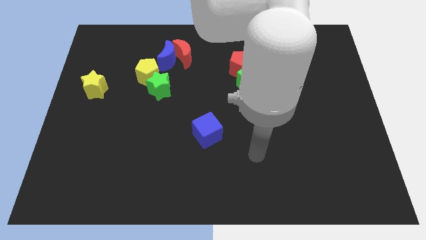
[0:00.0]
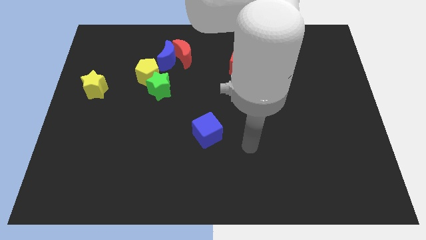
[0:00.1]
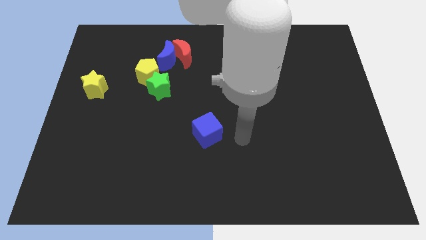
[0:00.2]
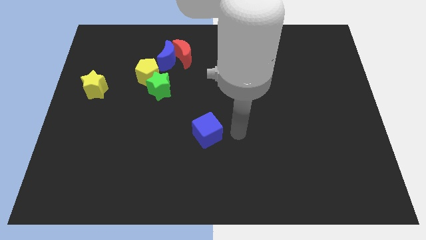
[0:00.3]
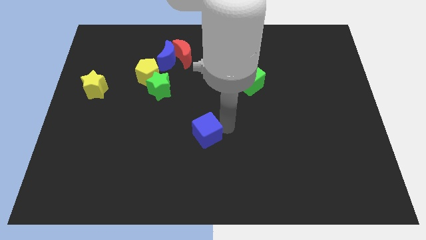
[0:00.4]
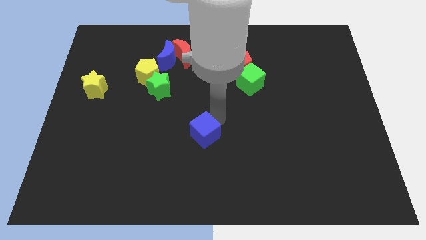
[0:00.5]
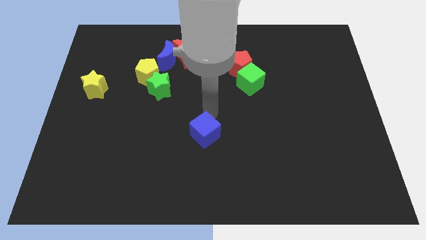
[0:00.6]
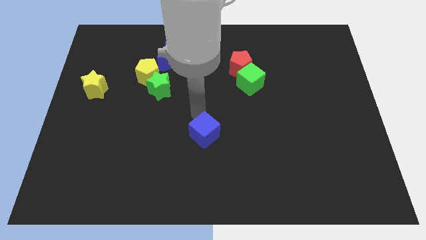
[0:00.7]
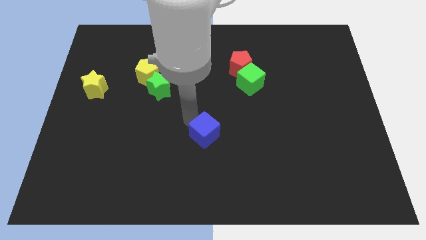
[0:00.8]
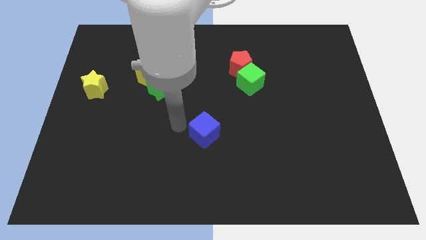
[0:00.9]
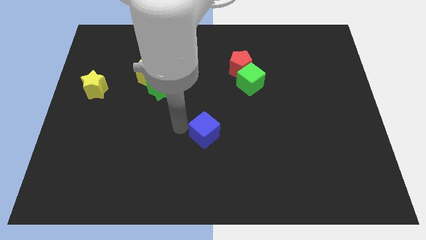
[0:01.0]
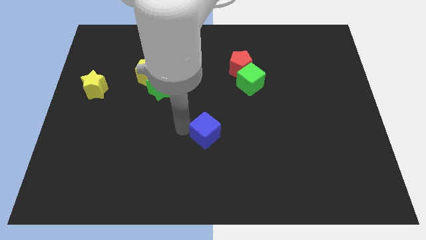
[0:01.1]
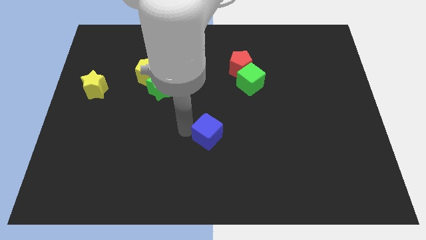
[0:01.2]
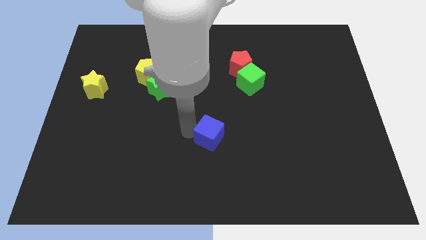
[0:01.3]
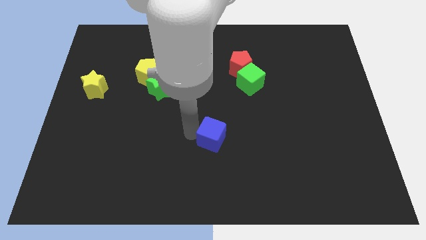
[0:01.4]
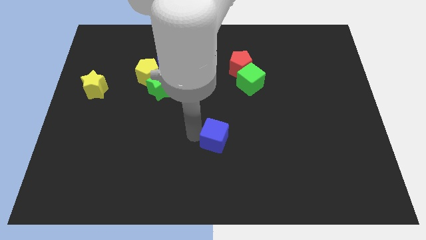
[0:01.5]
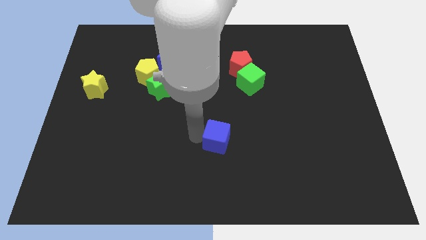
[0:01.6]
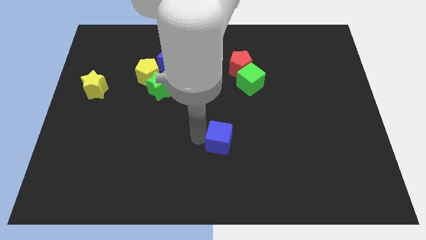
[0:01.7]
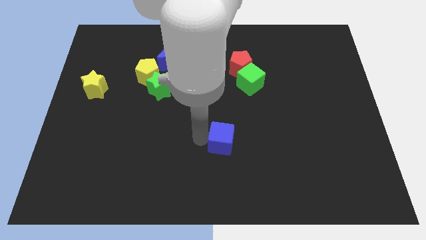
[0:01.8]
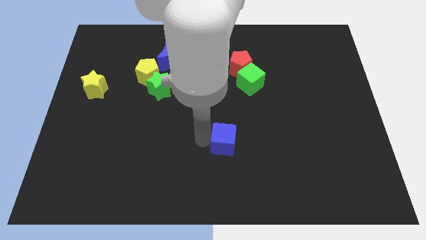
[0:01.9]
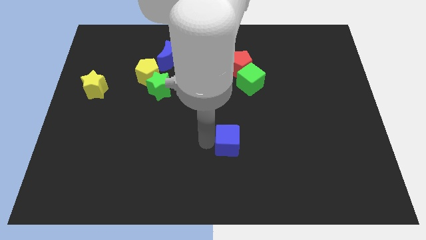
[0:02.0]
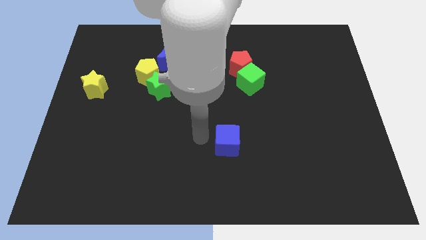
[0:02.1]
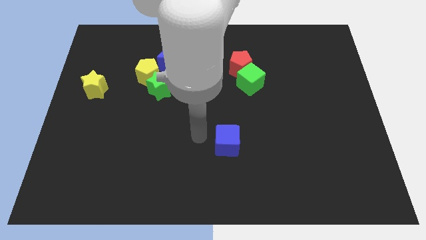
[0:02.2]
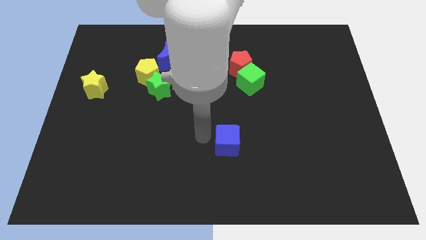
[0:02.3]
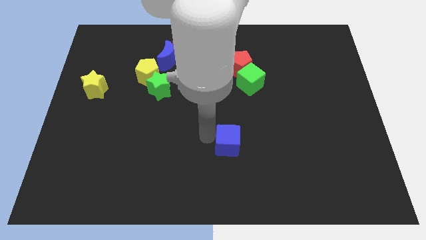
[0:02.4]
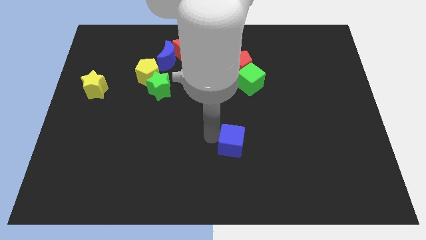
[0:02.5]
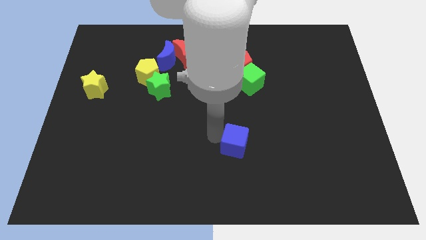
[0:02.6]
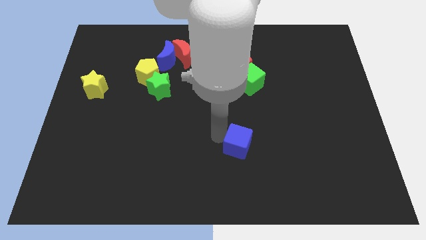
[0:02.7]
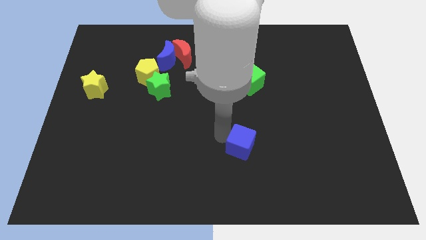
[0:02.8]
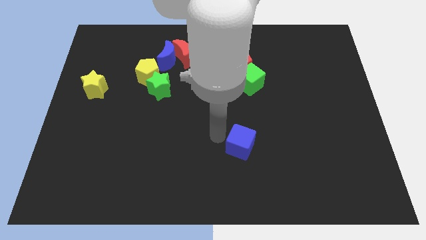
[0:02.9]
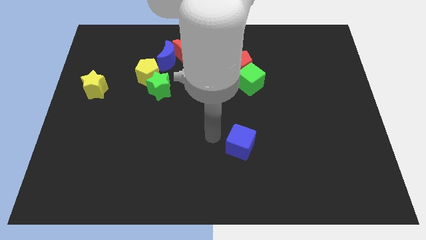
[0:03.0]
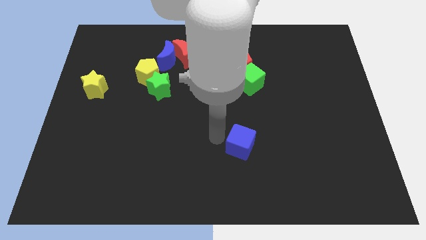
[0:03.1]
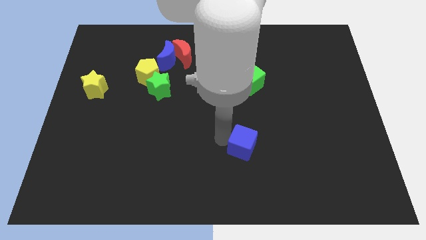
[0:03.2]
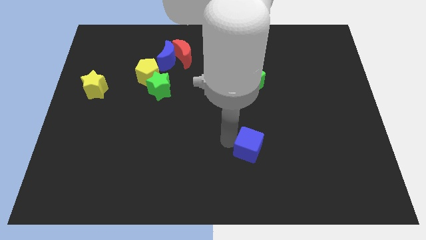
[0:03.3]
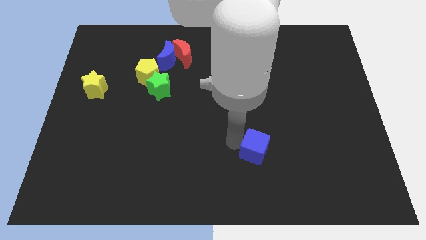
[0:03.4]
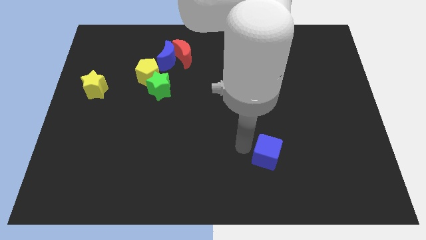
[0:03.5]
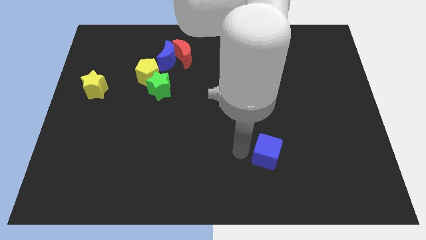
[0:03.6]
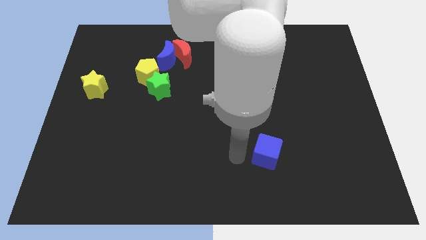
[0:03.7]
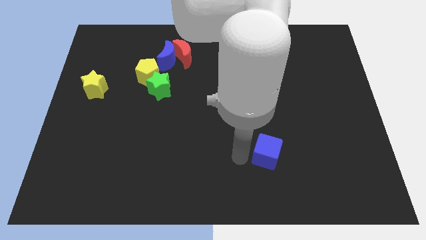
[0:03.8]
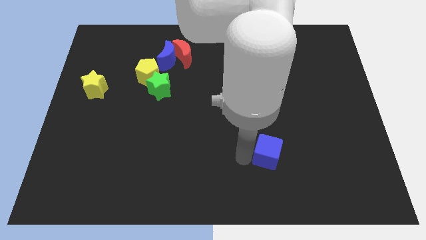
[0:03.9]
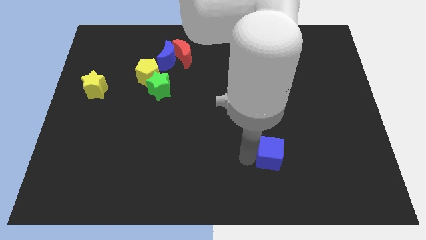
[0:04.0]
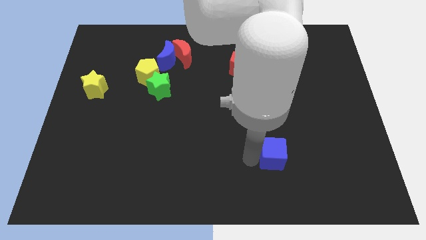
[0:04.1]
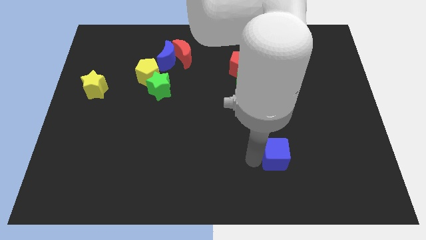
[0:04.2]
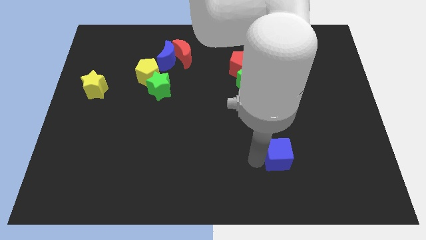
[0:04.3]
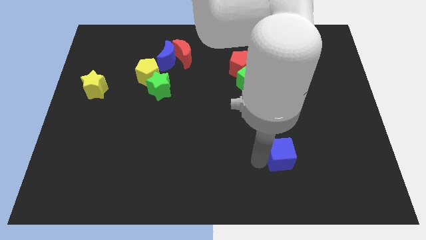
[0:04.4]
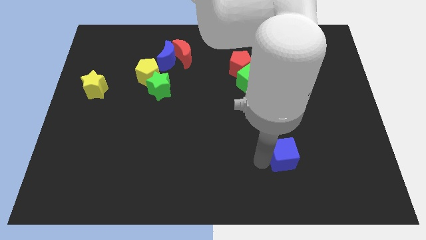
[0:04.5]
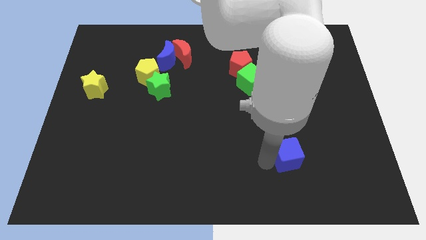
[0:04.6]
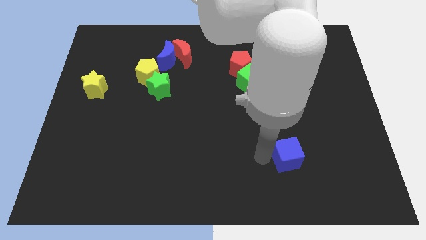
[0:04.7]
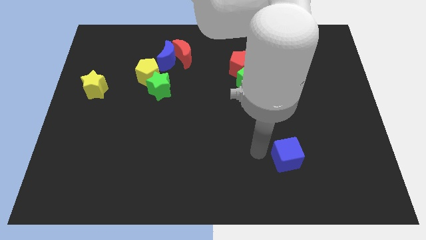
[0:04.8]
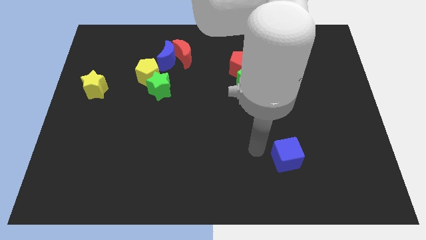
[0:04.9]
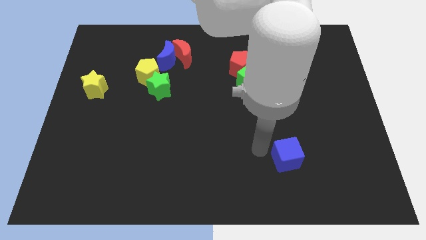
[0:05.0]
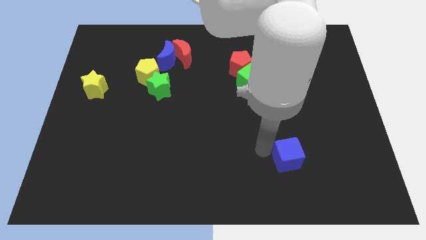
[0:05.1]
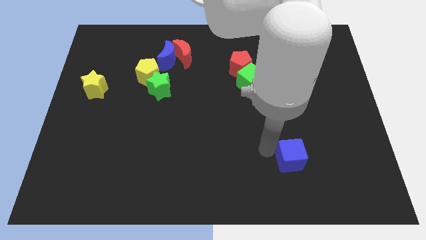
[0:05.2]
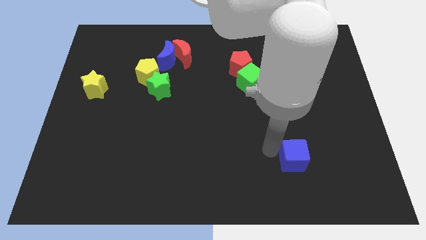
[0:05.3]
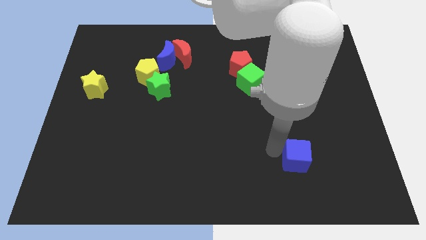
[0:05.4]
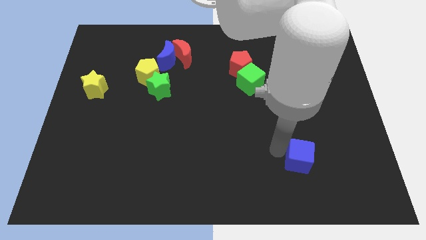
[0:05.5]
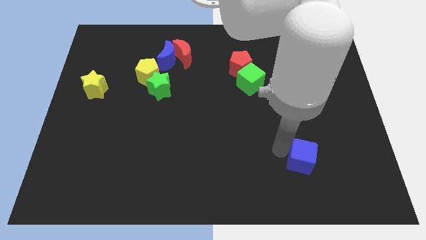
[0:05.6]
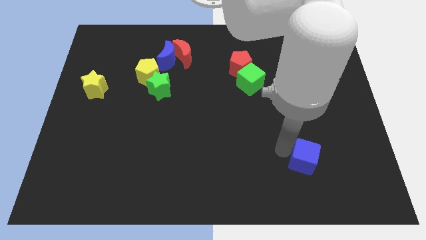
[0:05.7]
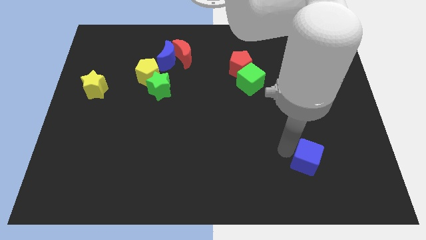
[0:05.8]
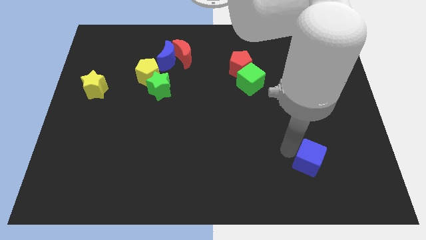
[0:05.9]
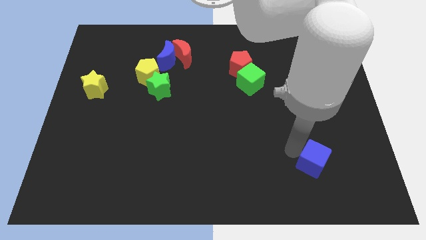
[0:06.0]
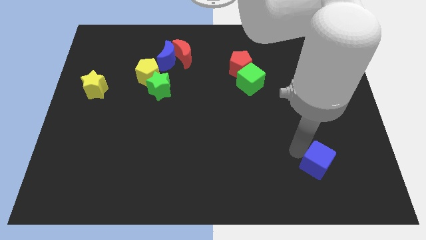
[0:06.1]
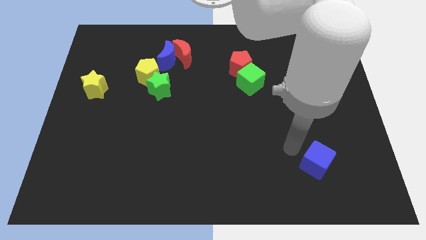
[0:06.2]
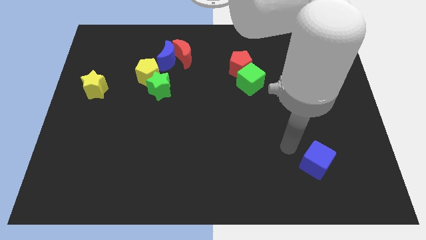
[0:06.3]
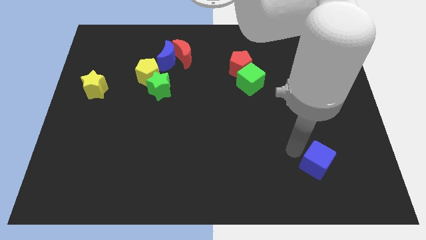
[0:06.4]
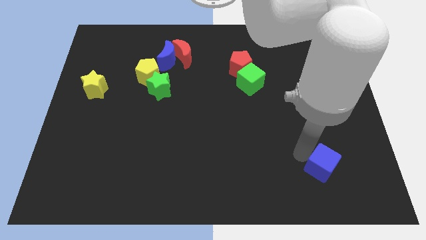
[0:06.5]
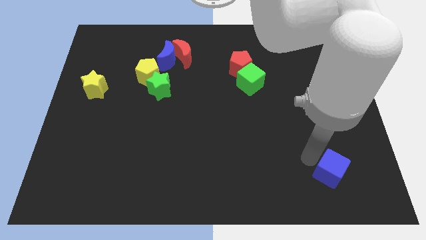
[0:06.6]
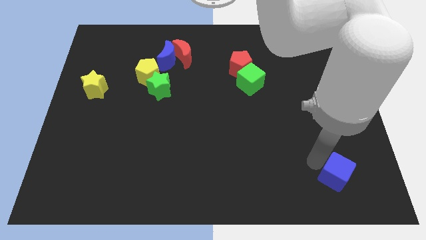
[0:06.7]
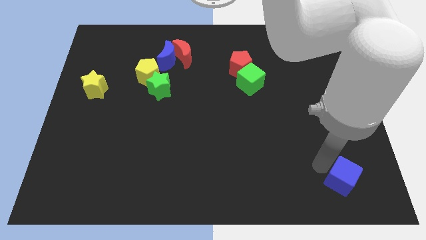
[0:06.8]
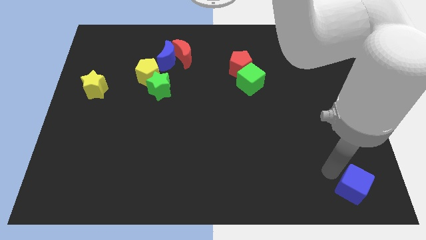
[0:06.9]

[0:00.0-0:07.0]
put the blue cube to the bottom right corner
